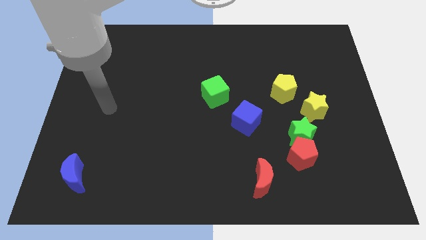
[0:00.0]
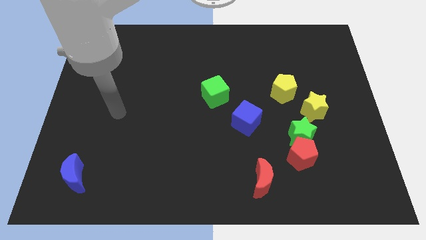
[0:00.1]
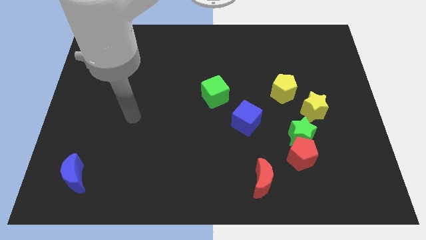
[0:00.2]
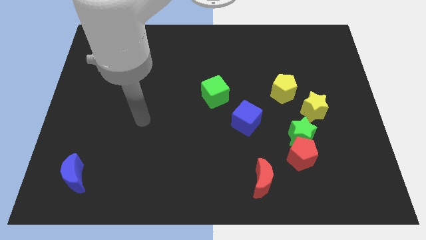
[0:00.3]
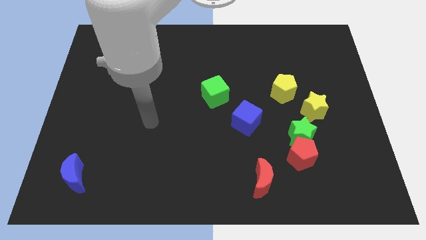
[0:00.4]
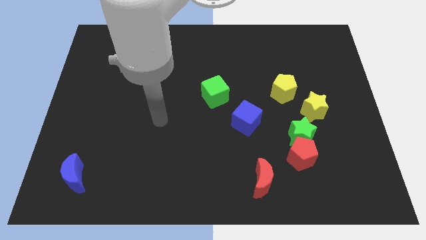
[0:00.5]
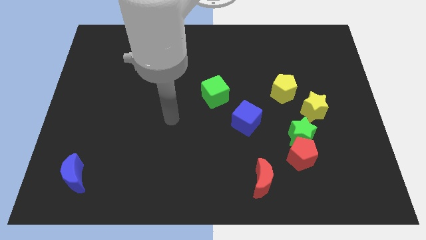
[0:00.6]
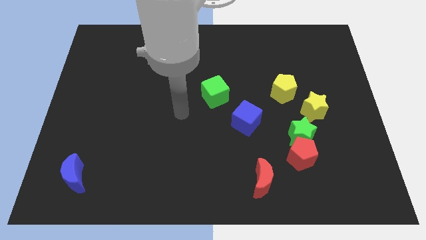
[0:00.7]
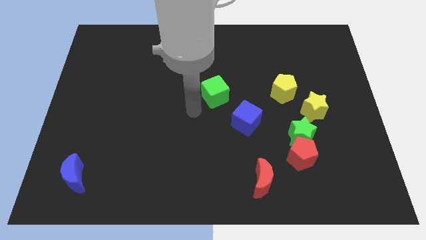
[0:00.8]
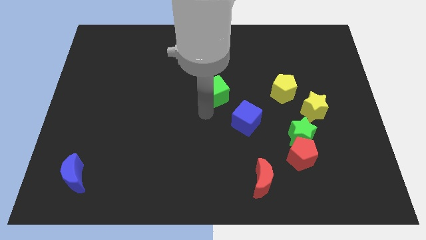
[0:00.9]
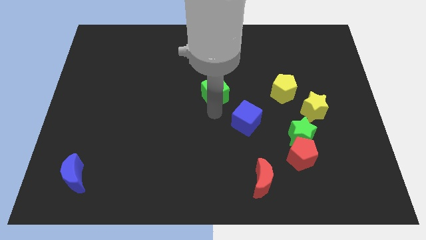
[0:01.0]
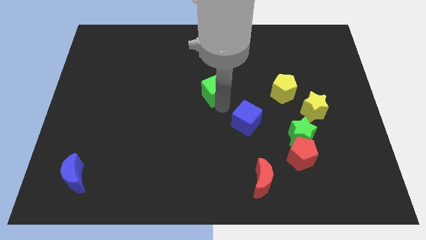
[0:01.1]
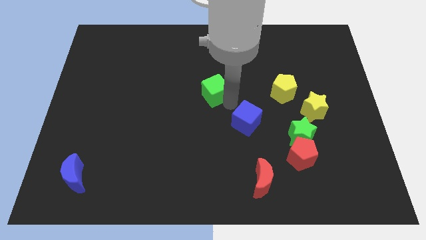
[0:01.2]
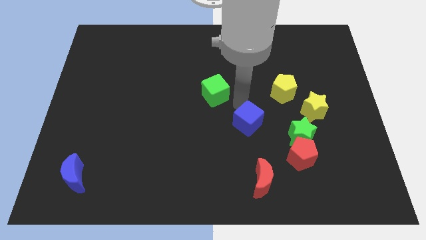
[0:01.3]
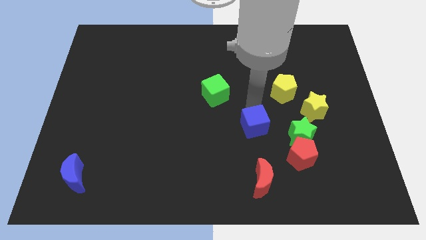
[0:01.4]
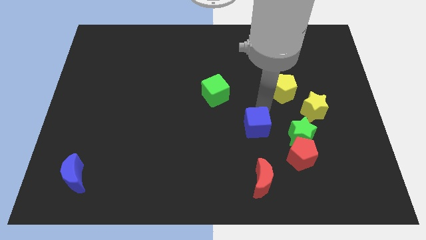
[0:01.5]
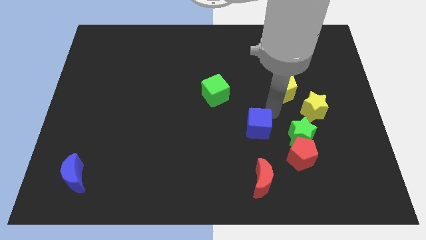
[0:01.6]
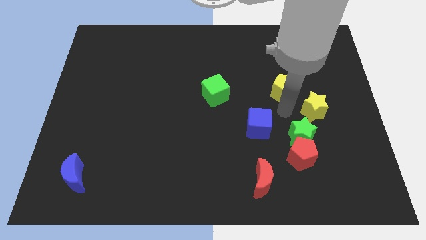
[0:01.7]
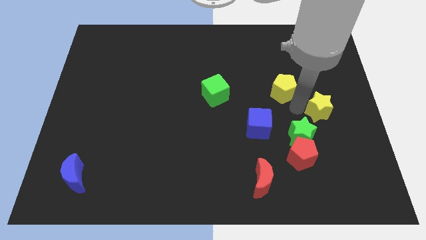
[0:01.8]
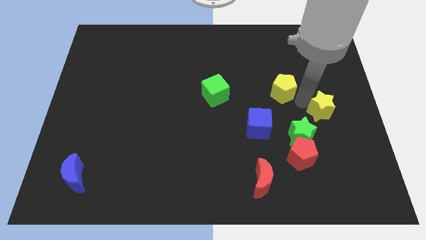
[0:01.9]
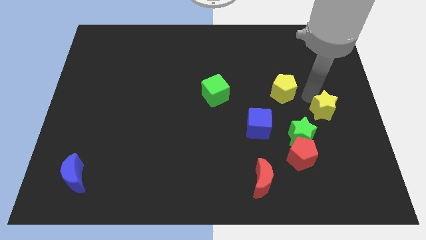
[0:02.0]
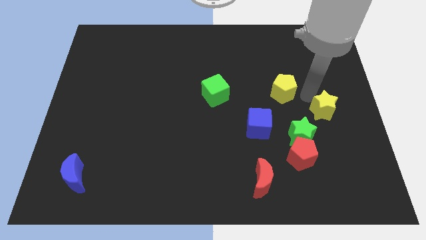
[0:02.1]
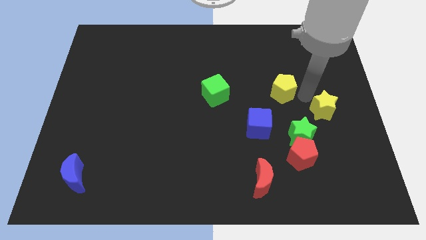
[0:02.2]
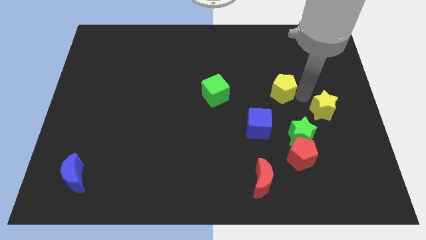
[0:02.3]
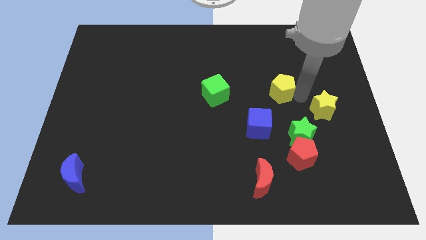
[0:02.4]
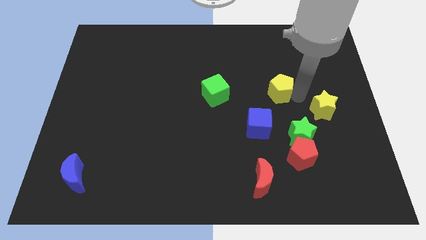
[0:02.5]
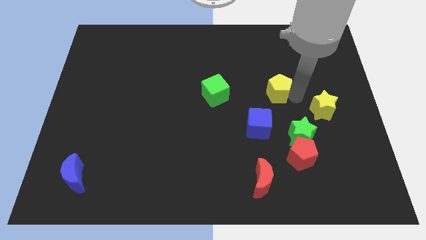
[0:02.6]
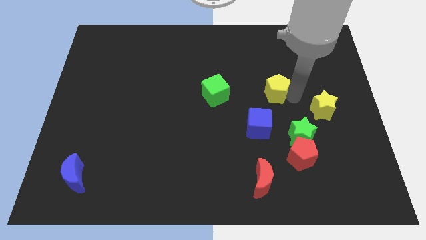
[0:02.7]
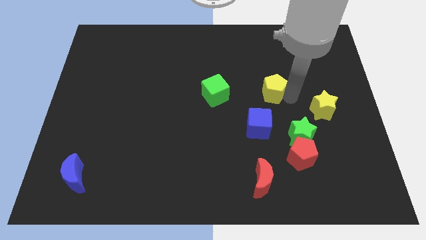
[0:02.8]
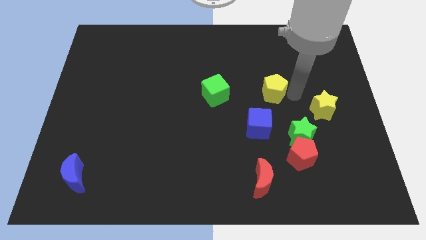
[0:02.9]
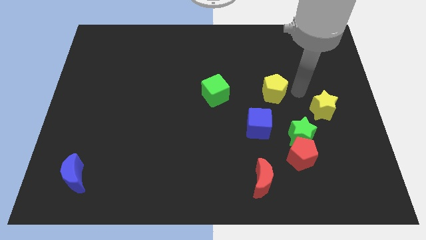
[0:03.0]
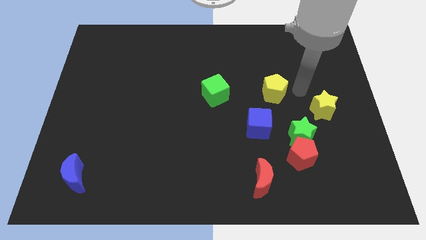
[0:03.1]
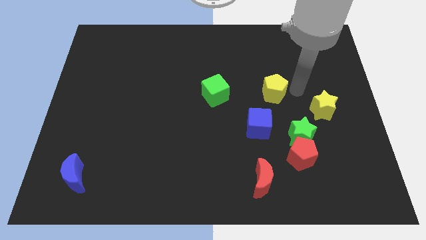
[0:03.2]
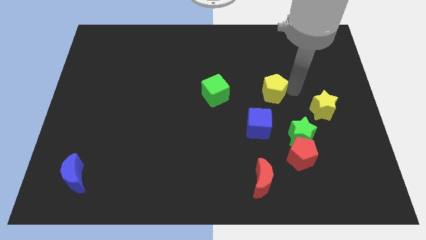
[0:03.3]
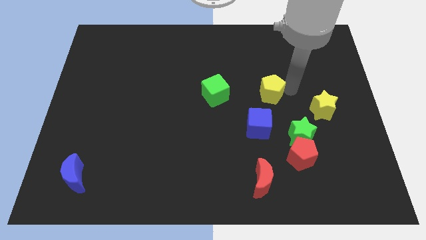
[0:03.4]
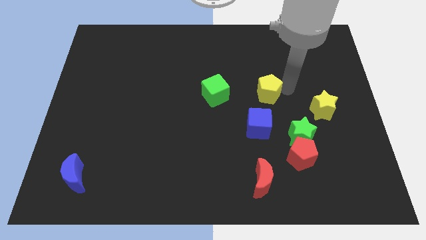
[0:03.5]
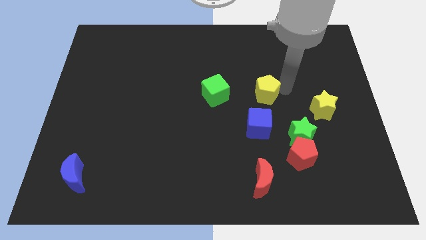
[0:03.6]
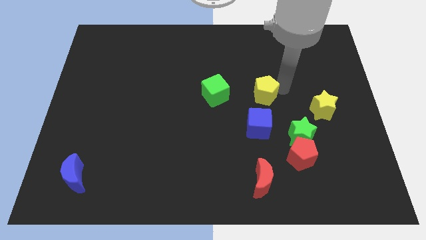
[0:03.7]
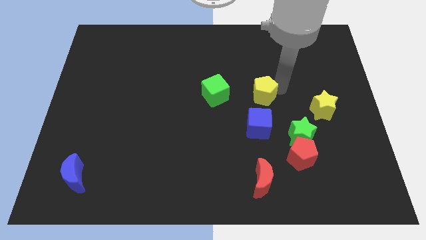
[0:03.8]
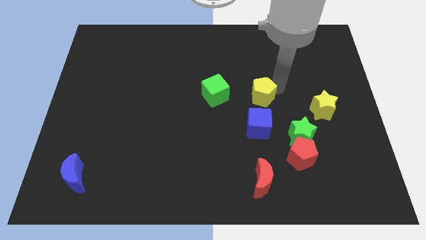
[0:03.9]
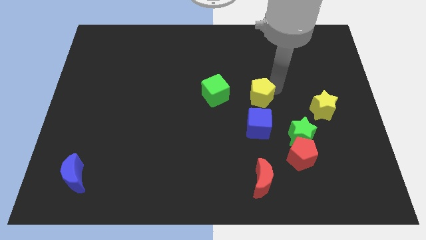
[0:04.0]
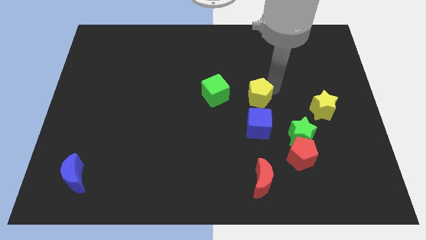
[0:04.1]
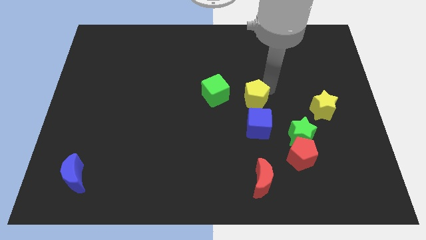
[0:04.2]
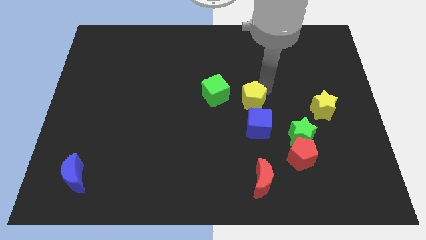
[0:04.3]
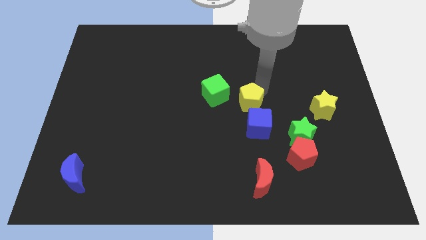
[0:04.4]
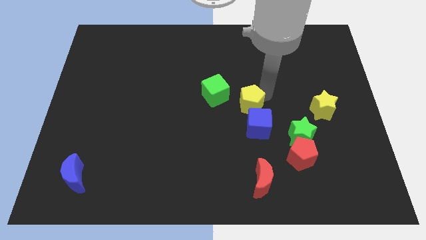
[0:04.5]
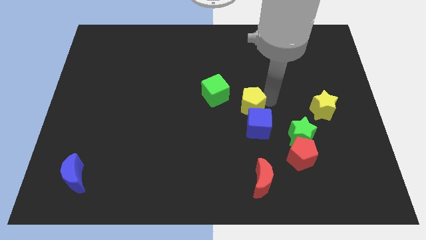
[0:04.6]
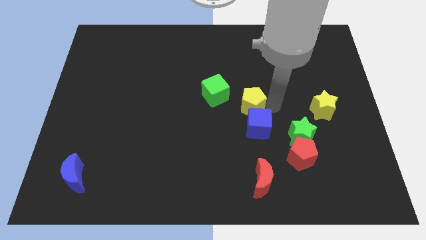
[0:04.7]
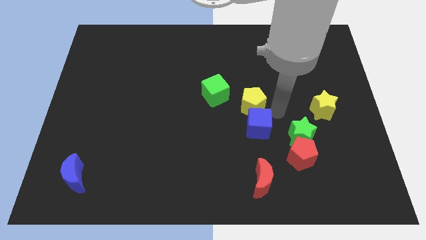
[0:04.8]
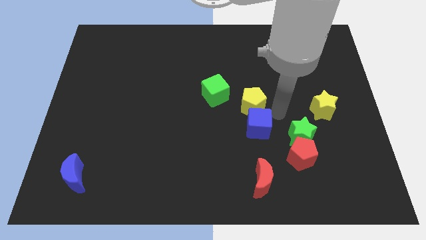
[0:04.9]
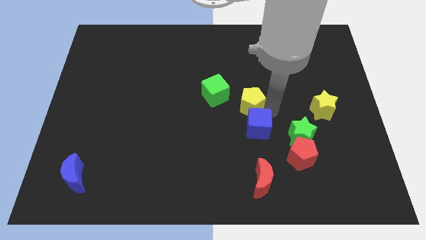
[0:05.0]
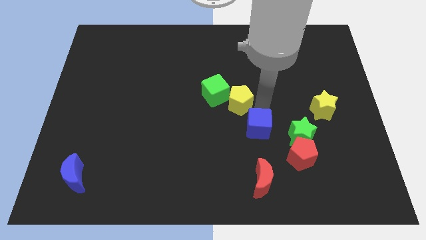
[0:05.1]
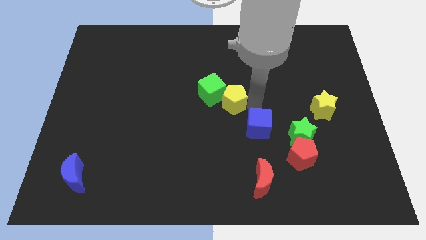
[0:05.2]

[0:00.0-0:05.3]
move the yellow pentagon next to the green cube

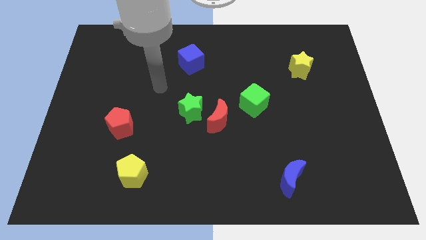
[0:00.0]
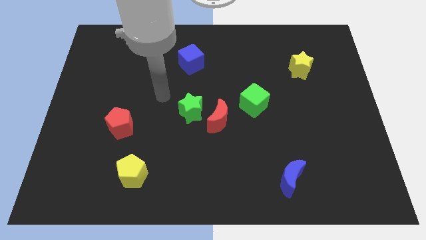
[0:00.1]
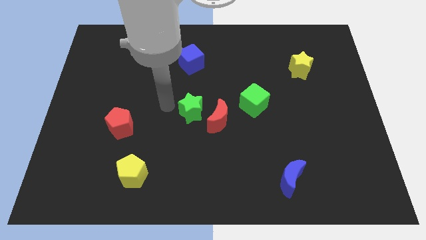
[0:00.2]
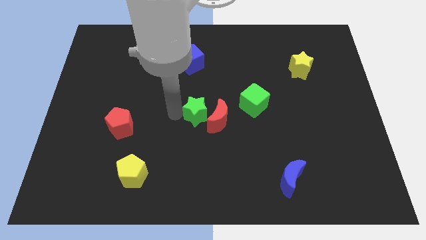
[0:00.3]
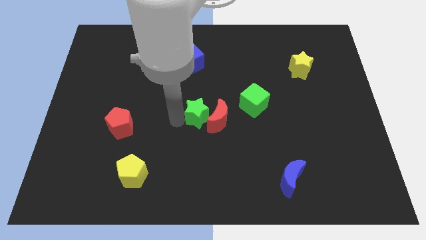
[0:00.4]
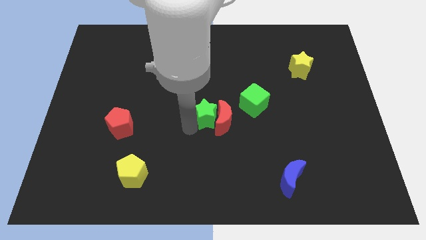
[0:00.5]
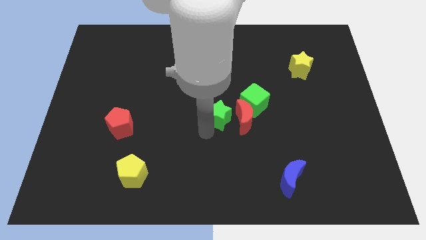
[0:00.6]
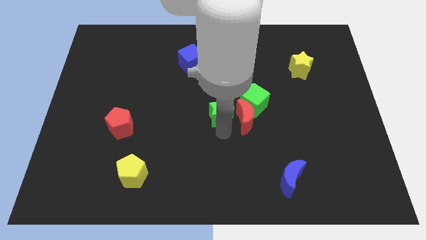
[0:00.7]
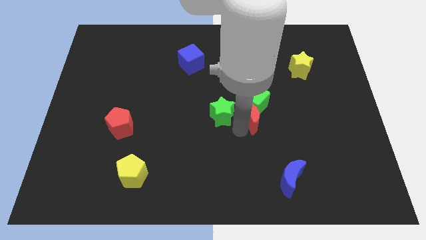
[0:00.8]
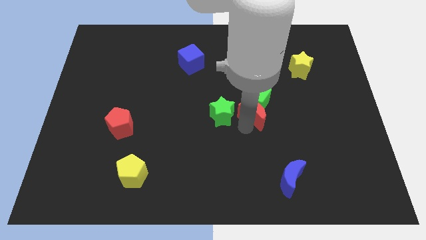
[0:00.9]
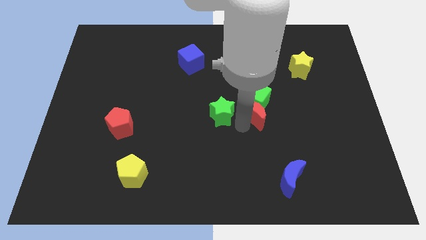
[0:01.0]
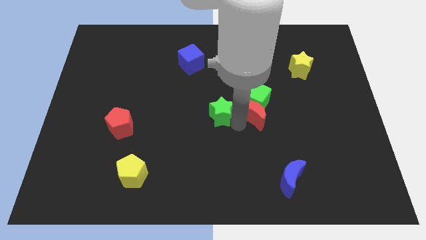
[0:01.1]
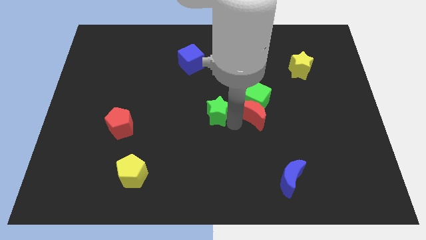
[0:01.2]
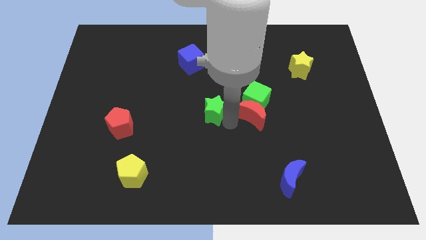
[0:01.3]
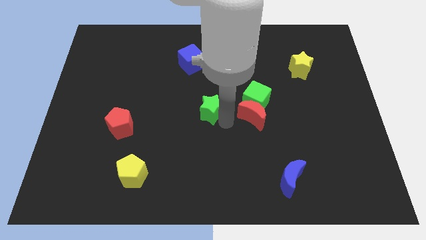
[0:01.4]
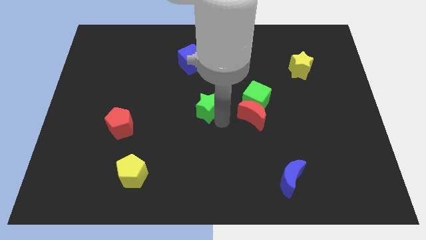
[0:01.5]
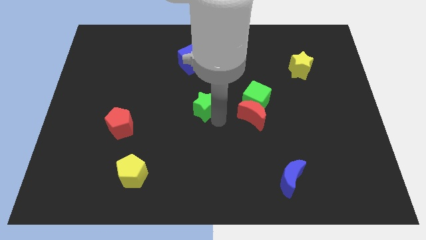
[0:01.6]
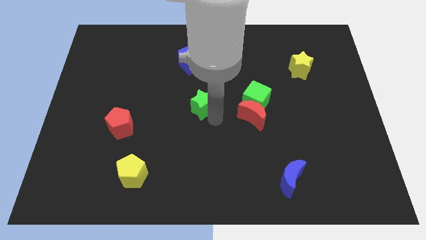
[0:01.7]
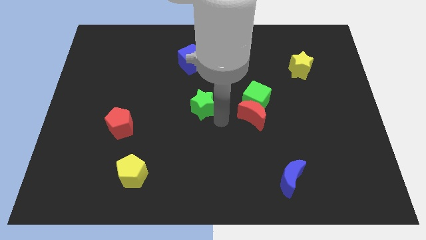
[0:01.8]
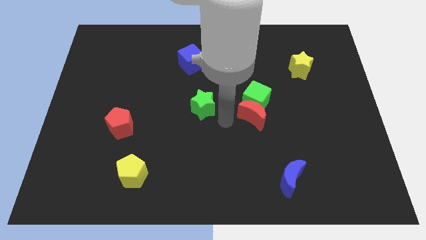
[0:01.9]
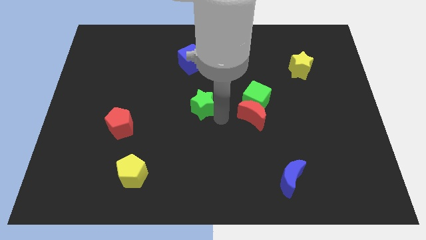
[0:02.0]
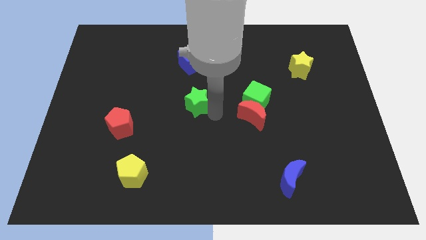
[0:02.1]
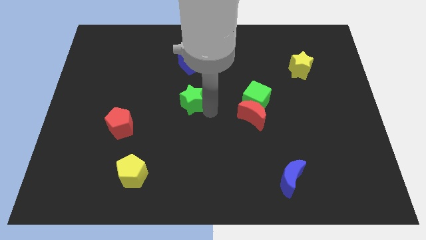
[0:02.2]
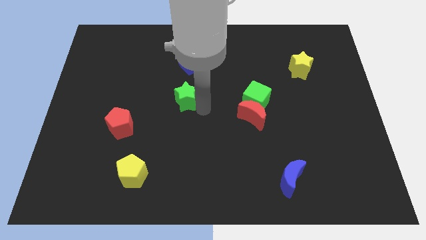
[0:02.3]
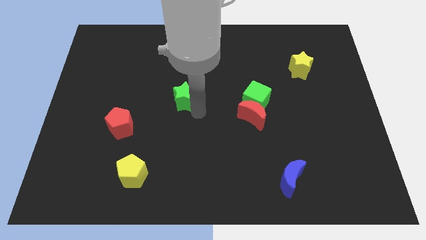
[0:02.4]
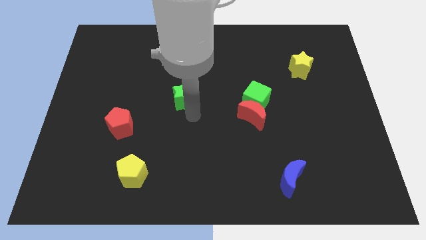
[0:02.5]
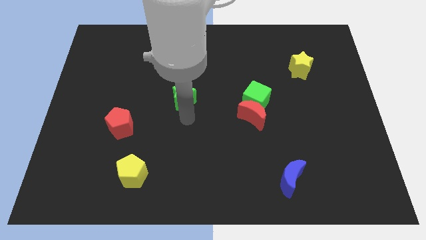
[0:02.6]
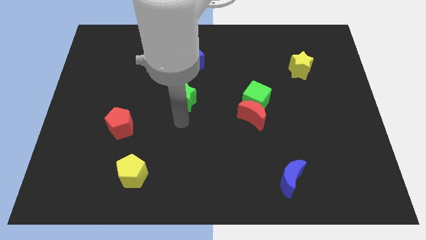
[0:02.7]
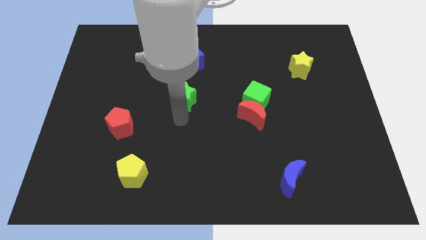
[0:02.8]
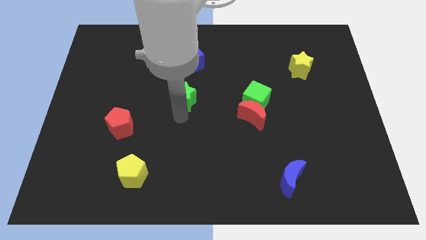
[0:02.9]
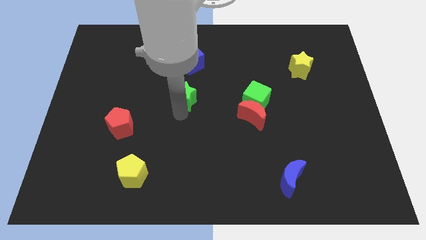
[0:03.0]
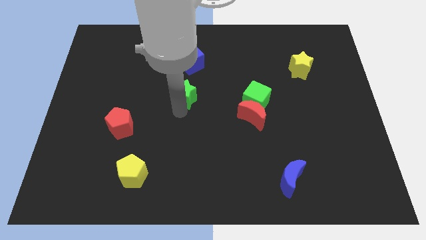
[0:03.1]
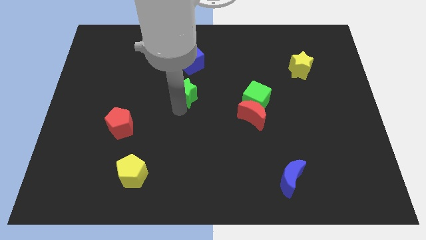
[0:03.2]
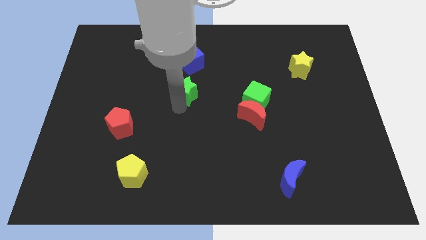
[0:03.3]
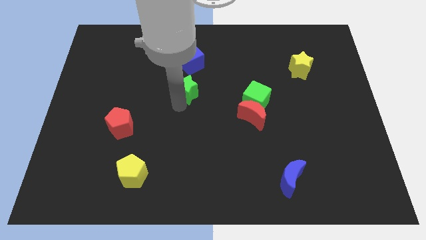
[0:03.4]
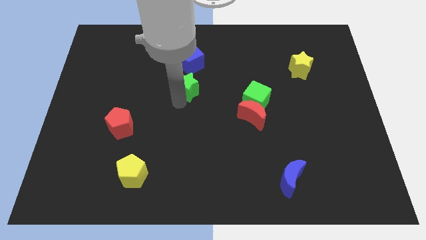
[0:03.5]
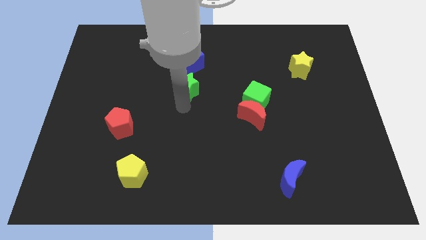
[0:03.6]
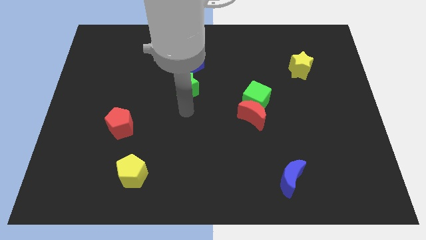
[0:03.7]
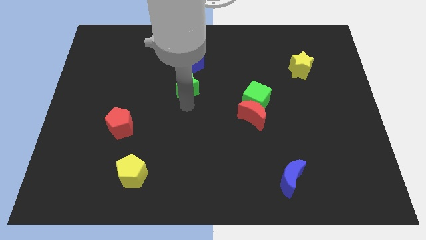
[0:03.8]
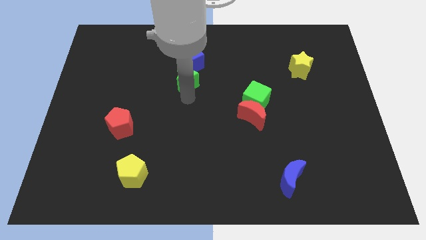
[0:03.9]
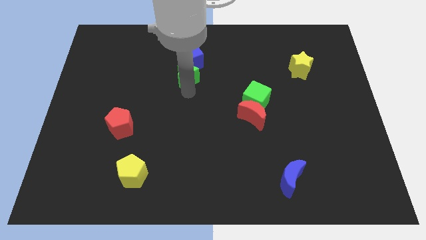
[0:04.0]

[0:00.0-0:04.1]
put the green star next to the blue cube
